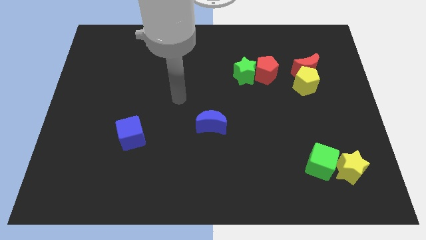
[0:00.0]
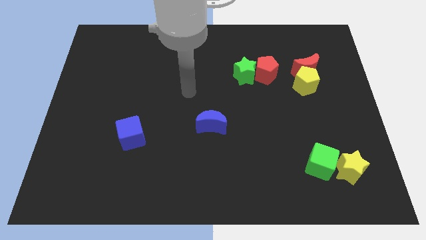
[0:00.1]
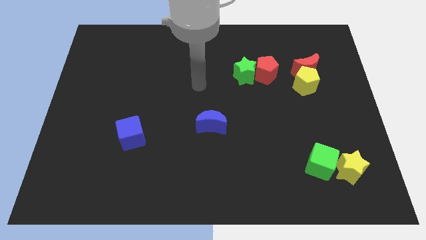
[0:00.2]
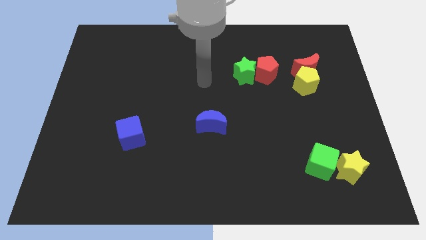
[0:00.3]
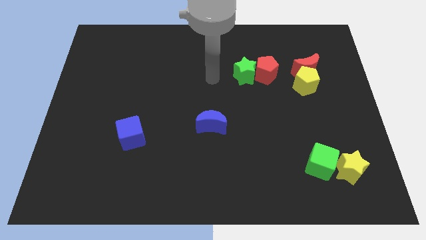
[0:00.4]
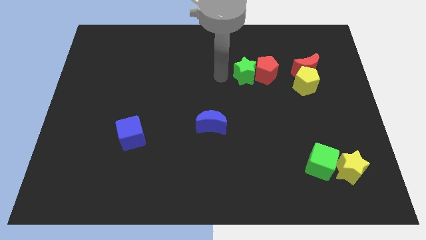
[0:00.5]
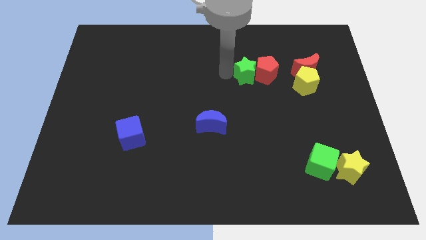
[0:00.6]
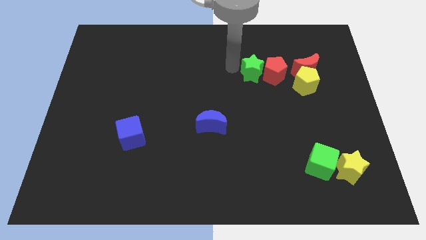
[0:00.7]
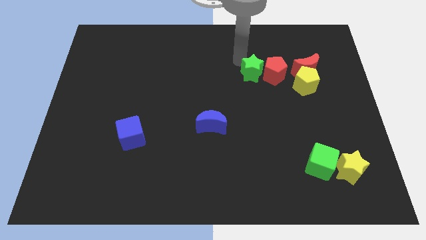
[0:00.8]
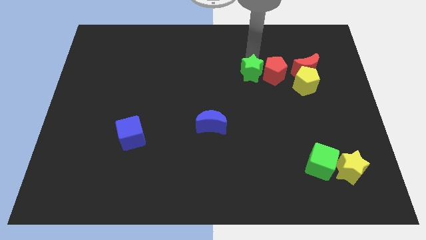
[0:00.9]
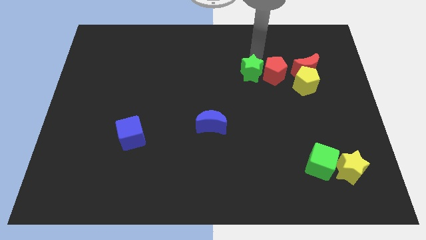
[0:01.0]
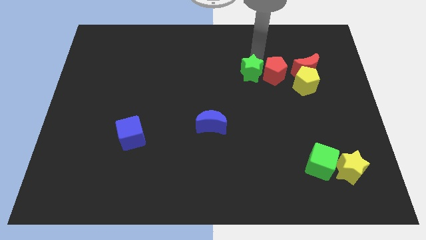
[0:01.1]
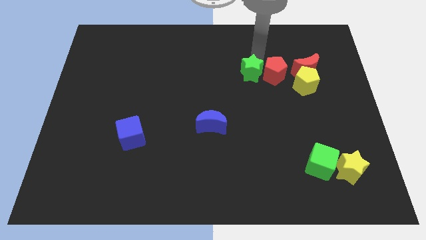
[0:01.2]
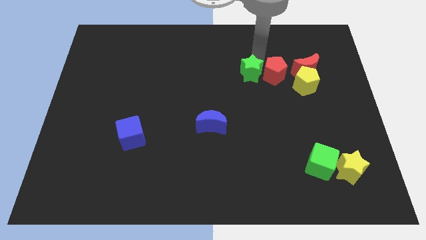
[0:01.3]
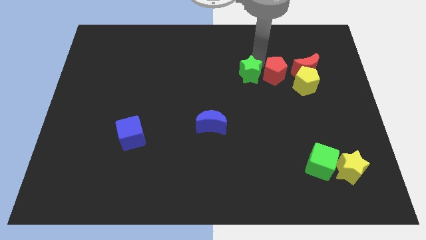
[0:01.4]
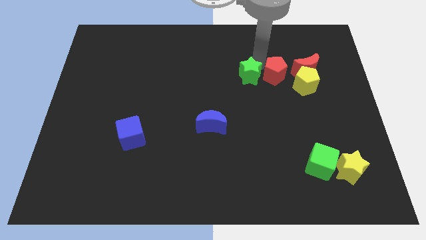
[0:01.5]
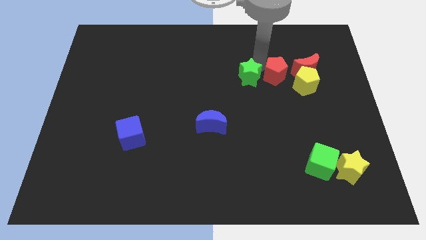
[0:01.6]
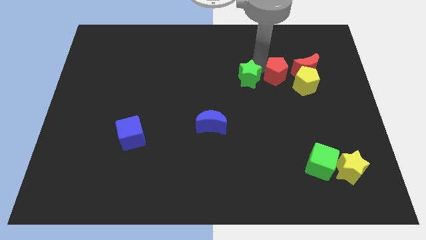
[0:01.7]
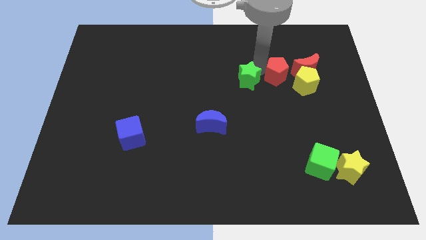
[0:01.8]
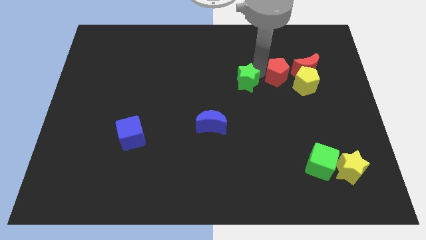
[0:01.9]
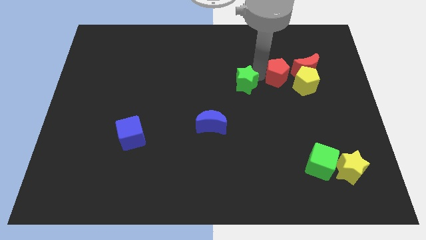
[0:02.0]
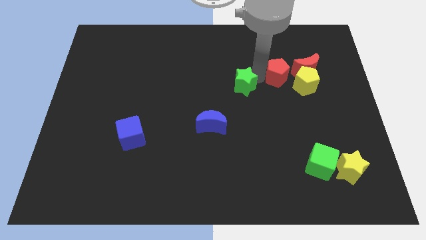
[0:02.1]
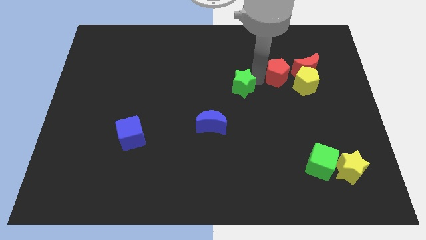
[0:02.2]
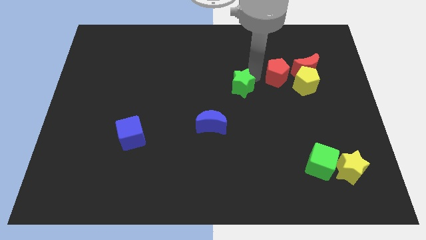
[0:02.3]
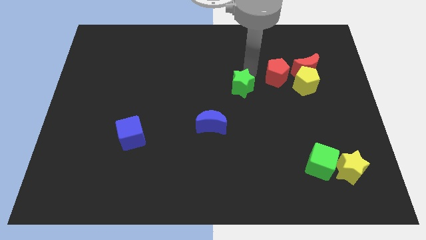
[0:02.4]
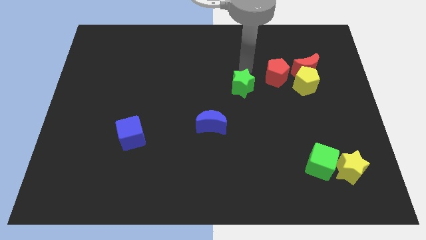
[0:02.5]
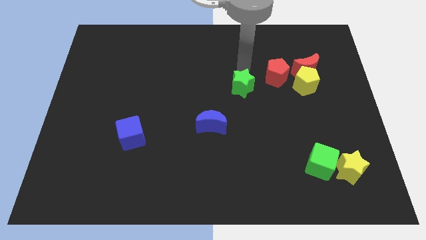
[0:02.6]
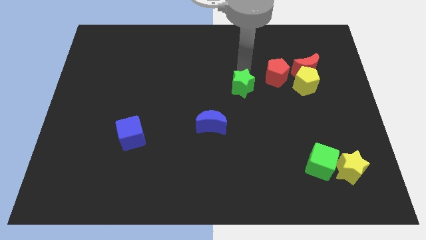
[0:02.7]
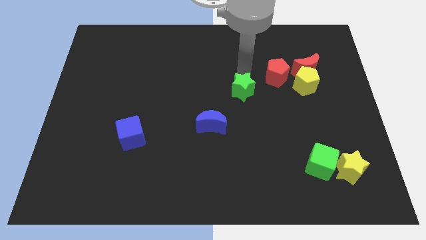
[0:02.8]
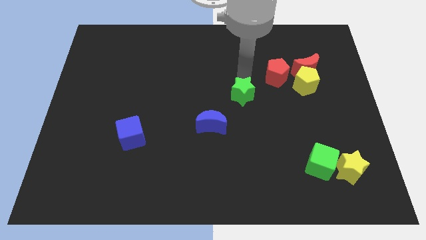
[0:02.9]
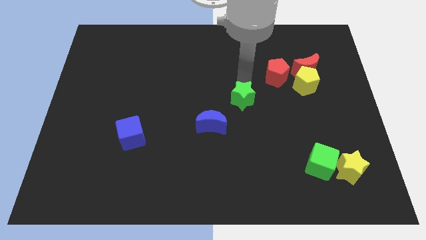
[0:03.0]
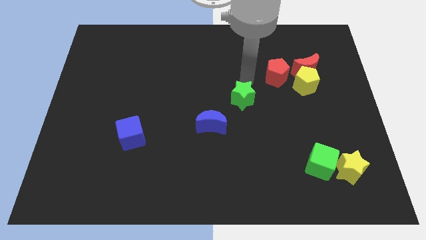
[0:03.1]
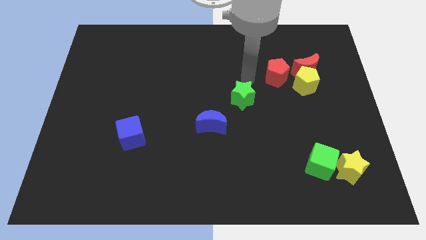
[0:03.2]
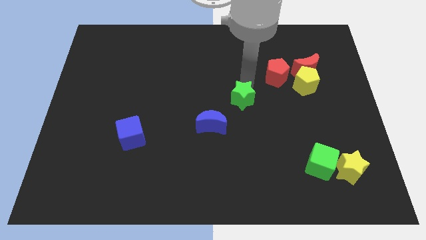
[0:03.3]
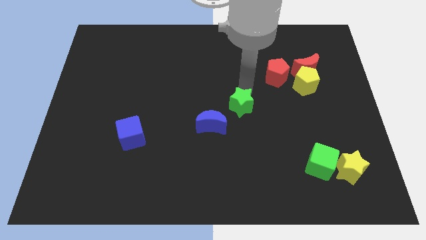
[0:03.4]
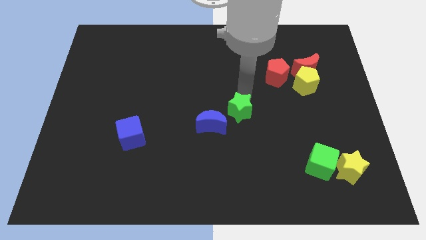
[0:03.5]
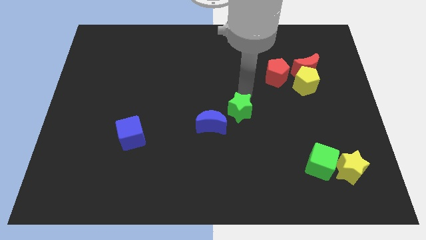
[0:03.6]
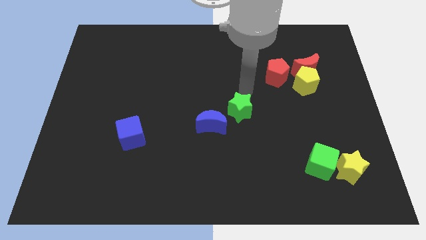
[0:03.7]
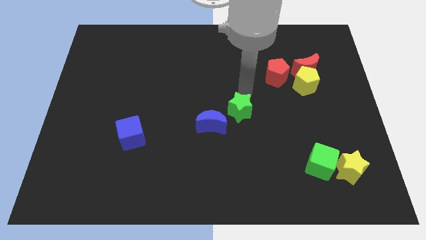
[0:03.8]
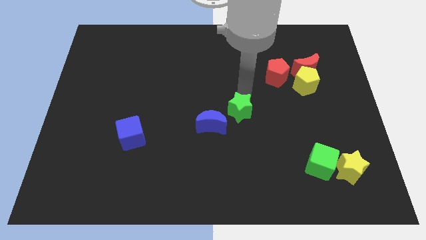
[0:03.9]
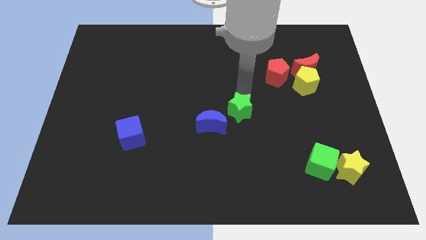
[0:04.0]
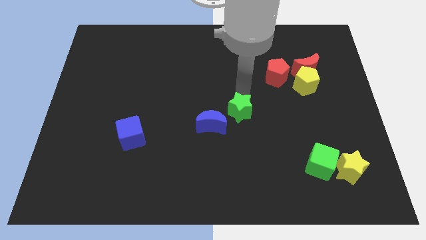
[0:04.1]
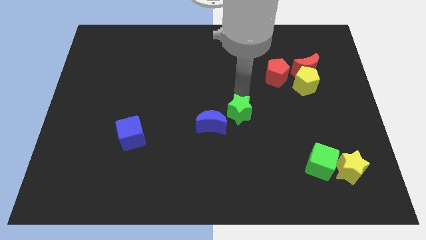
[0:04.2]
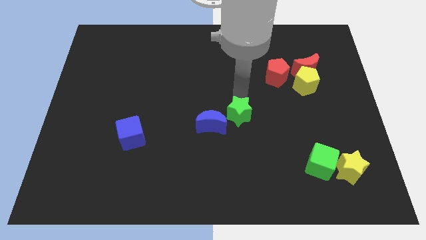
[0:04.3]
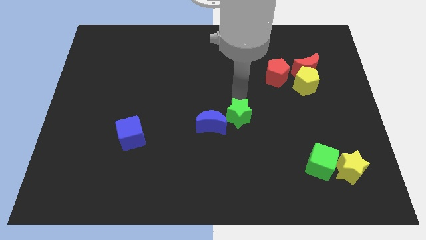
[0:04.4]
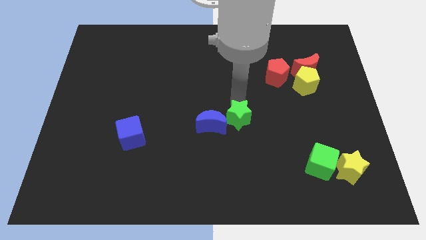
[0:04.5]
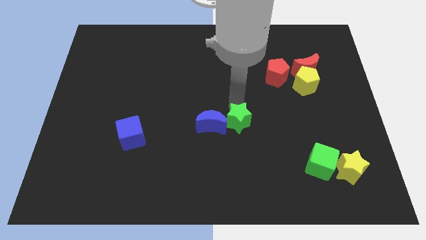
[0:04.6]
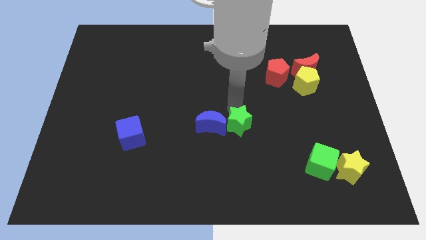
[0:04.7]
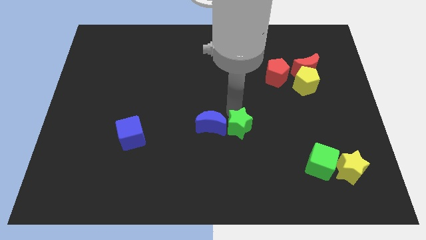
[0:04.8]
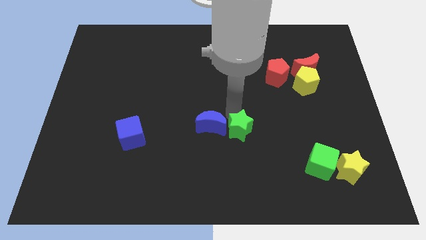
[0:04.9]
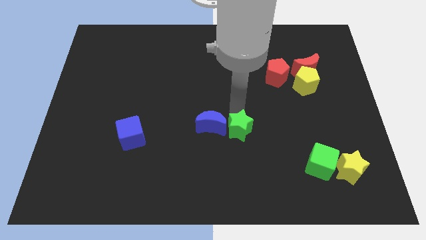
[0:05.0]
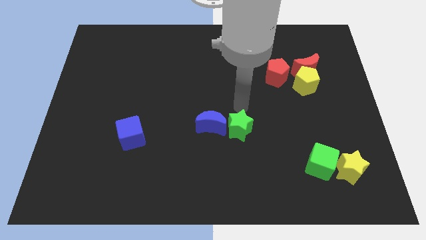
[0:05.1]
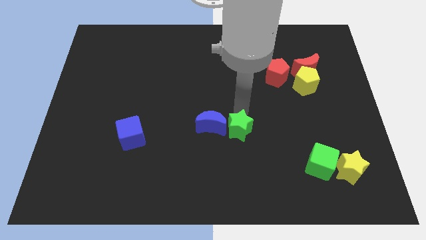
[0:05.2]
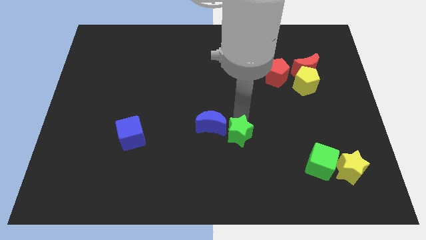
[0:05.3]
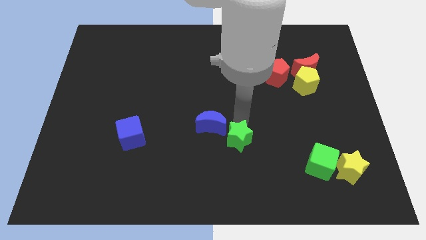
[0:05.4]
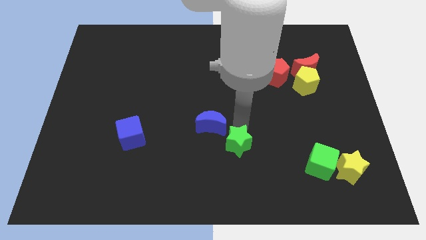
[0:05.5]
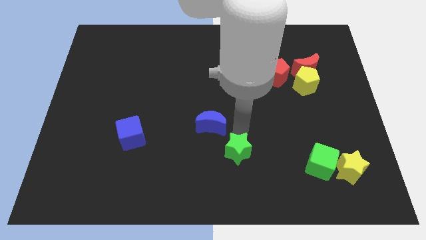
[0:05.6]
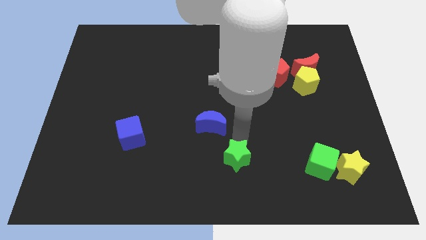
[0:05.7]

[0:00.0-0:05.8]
slide the green star to the bottom side
